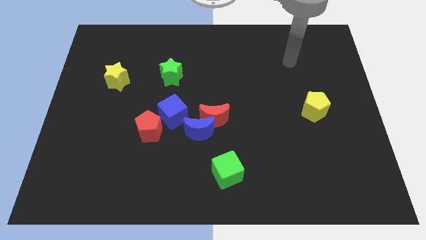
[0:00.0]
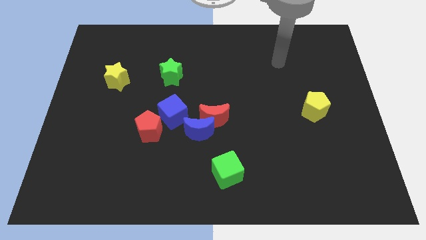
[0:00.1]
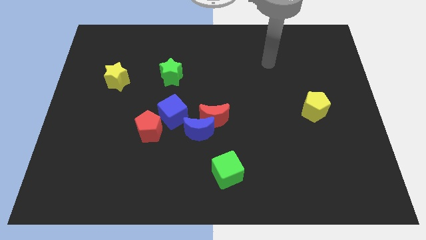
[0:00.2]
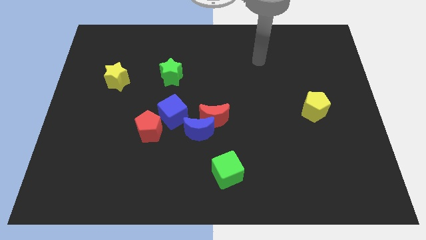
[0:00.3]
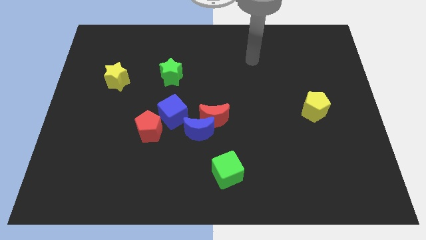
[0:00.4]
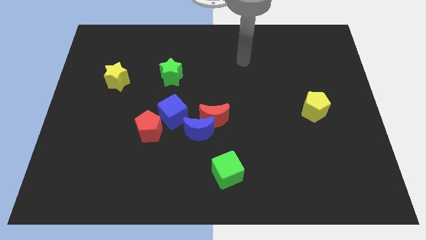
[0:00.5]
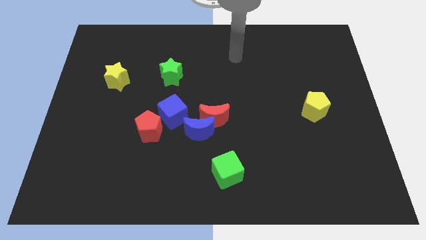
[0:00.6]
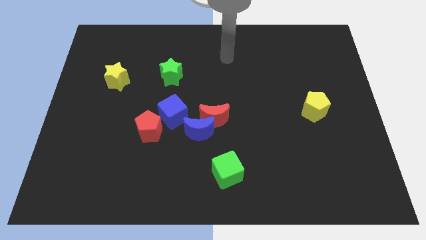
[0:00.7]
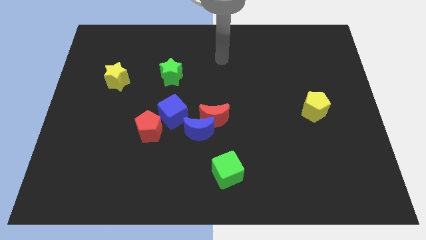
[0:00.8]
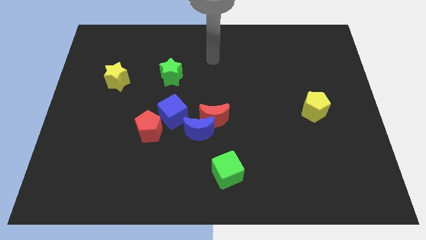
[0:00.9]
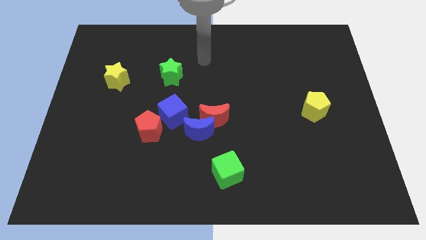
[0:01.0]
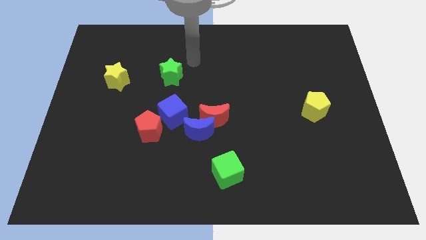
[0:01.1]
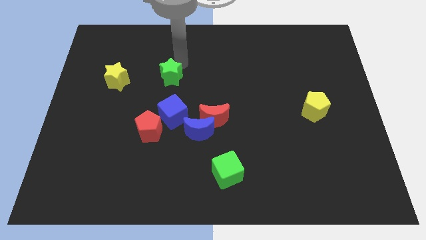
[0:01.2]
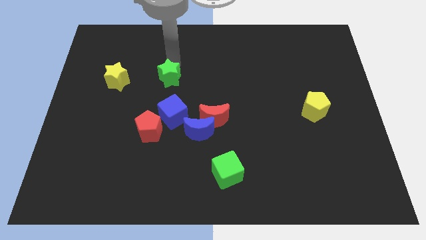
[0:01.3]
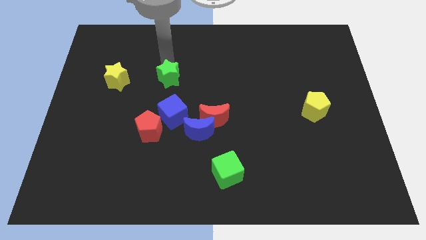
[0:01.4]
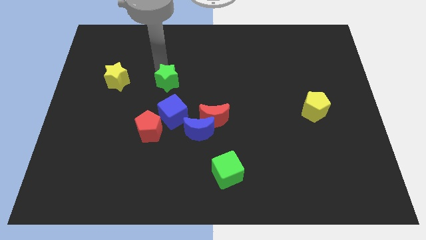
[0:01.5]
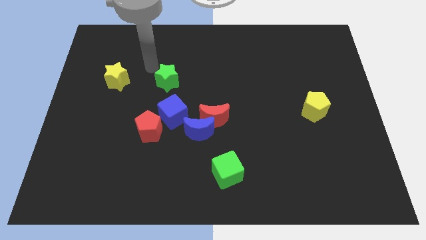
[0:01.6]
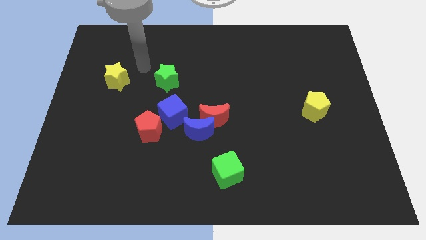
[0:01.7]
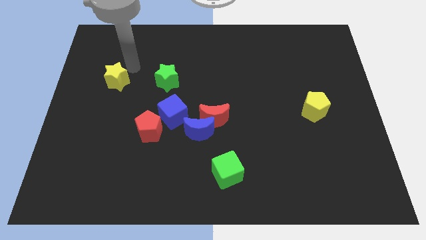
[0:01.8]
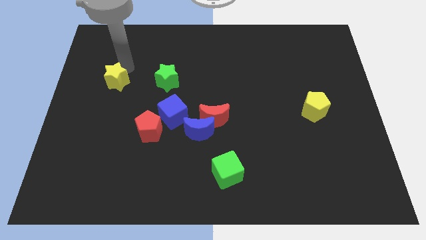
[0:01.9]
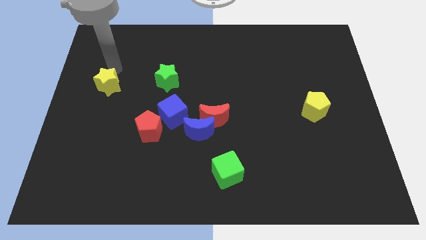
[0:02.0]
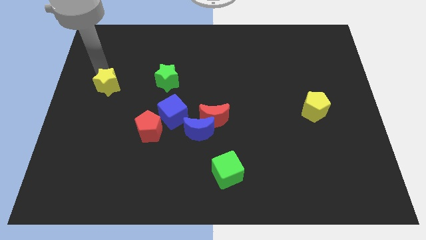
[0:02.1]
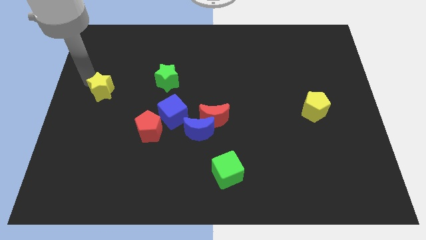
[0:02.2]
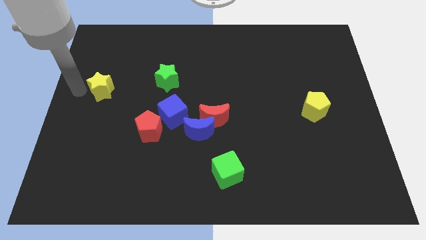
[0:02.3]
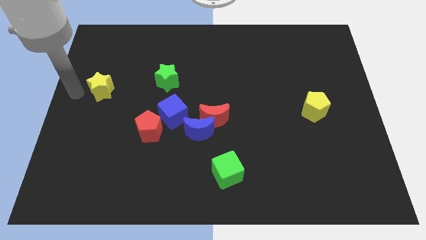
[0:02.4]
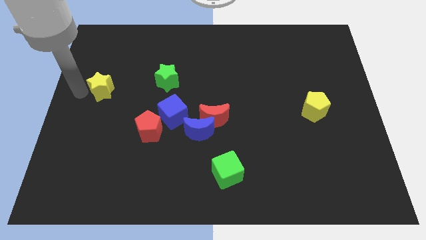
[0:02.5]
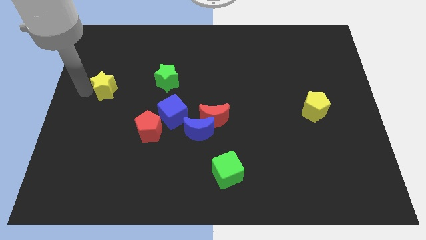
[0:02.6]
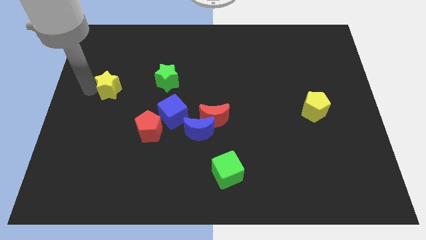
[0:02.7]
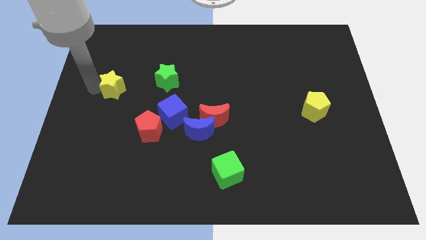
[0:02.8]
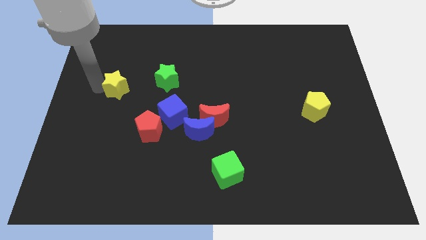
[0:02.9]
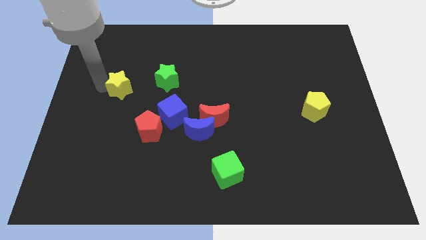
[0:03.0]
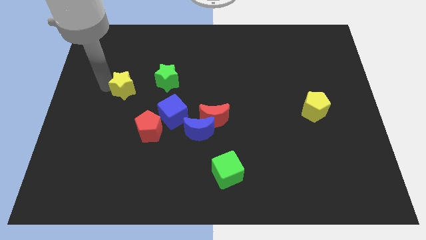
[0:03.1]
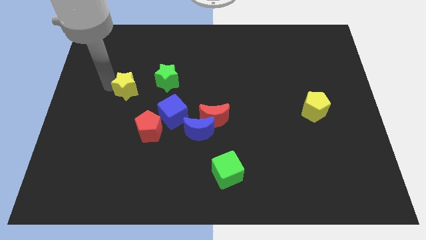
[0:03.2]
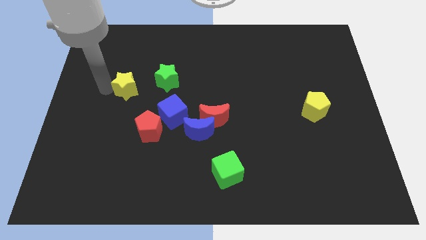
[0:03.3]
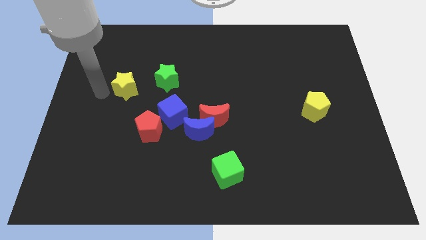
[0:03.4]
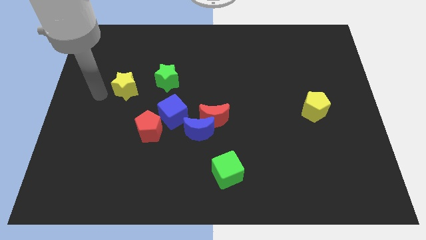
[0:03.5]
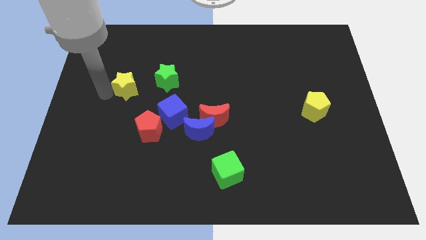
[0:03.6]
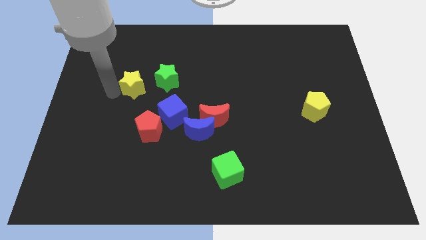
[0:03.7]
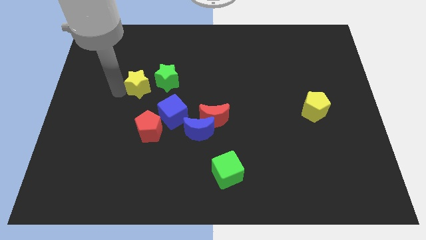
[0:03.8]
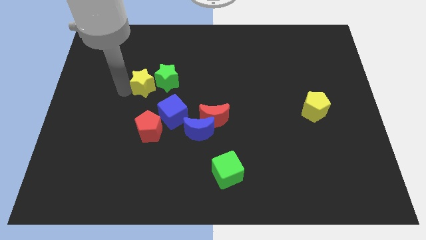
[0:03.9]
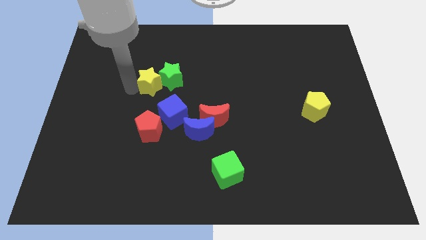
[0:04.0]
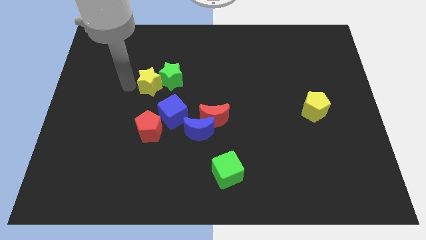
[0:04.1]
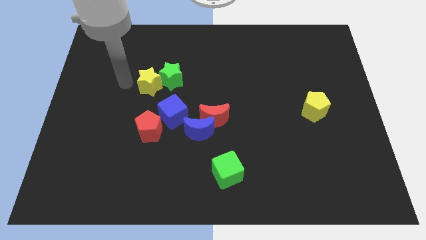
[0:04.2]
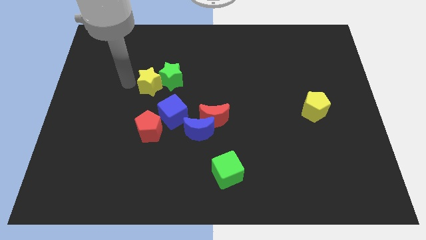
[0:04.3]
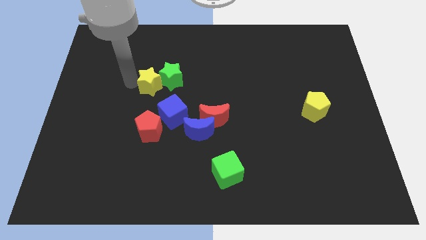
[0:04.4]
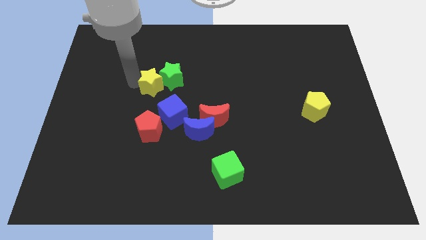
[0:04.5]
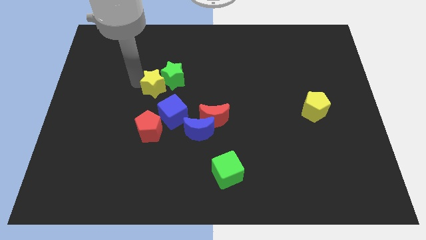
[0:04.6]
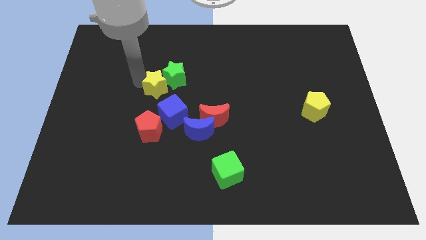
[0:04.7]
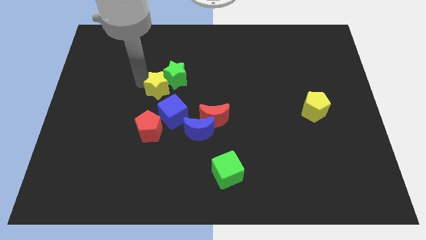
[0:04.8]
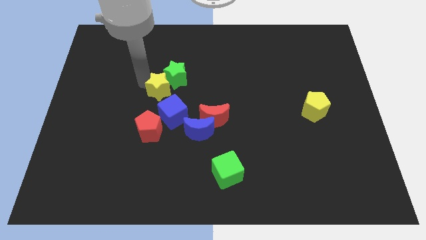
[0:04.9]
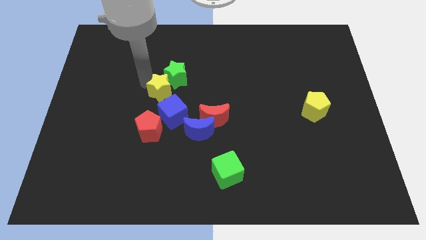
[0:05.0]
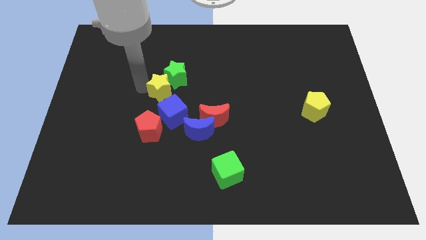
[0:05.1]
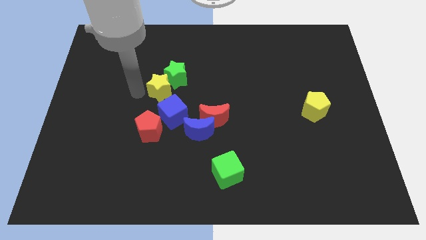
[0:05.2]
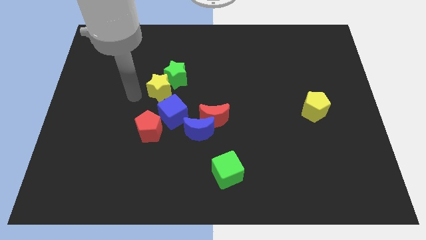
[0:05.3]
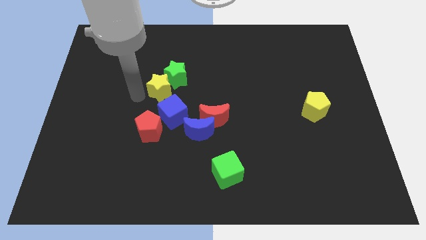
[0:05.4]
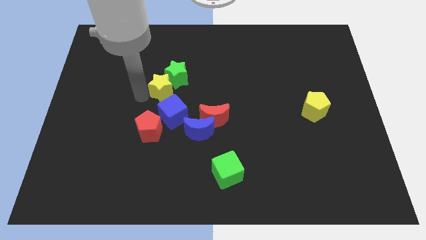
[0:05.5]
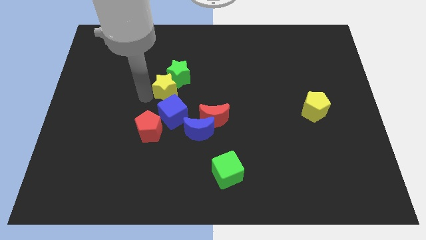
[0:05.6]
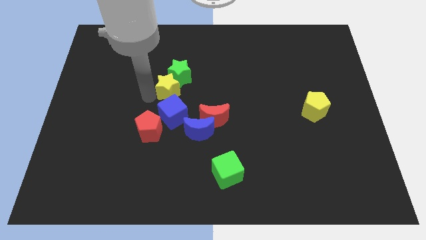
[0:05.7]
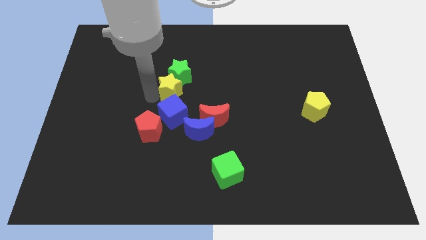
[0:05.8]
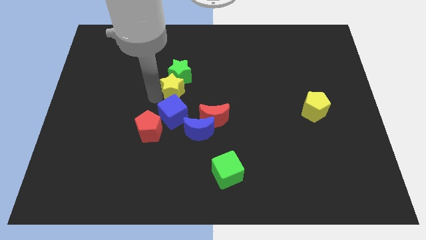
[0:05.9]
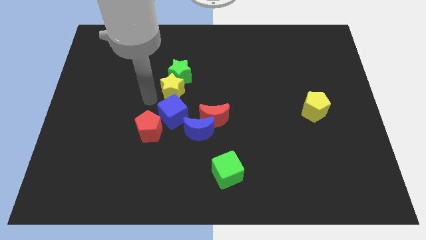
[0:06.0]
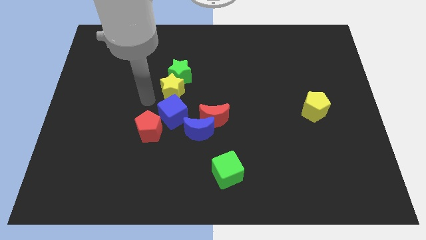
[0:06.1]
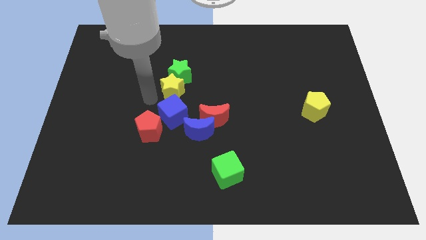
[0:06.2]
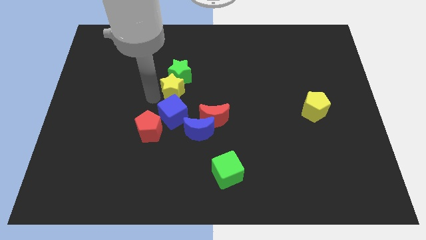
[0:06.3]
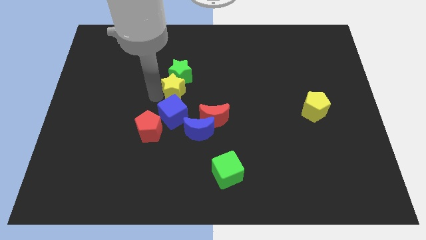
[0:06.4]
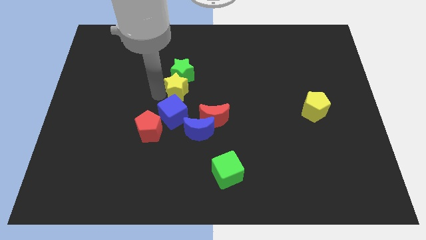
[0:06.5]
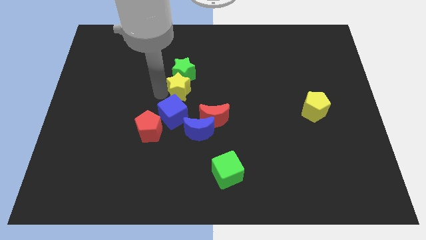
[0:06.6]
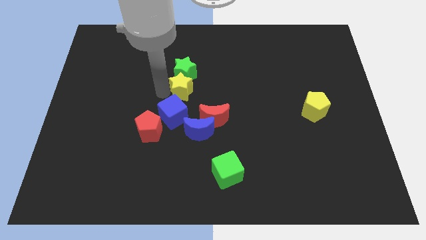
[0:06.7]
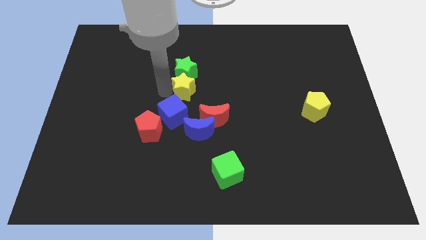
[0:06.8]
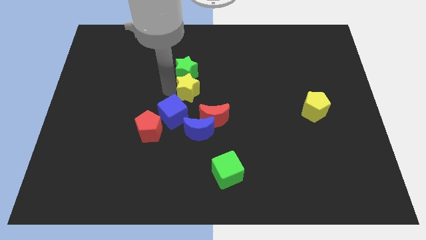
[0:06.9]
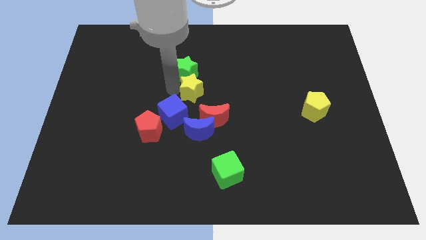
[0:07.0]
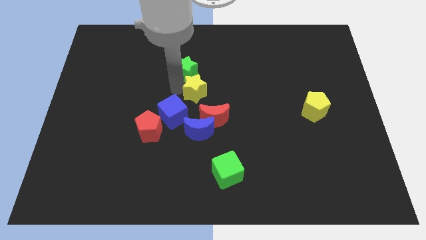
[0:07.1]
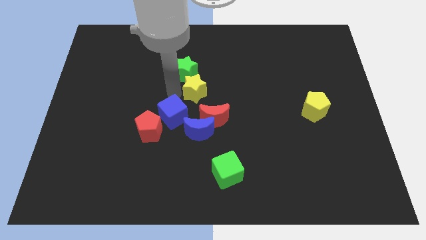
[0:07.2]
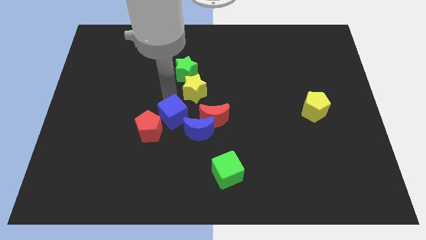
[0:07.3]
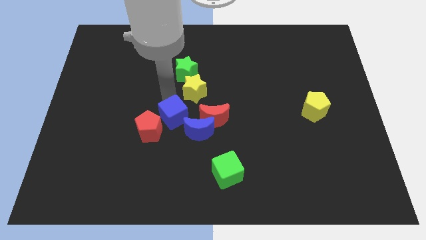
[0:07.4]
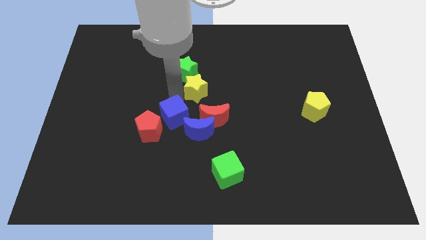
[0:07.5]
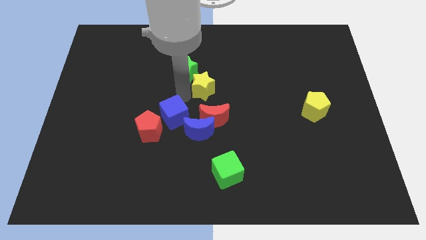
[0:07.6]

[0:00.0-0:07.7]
move the yellow star right

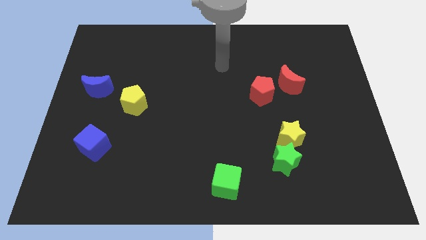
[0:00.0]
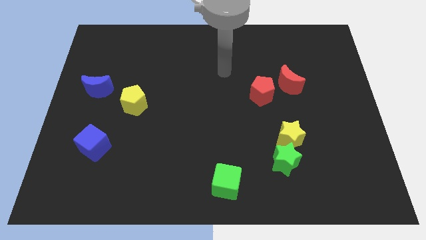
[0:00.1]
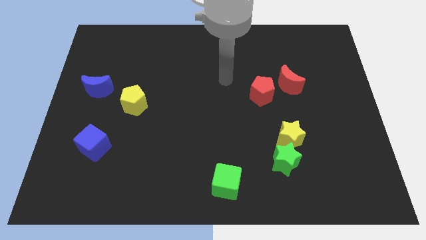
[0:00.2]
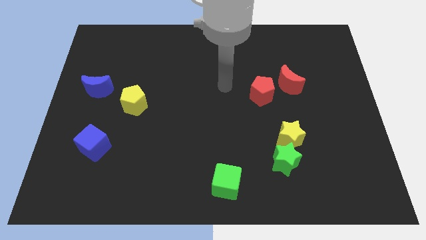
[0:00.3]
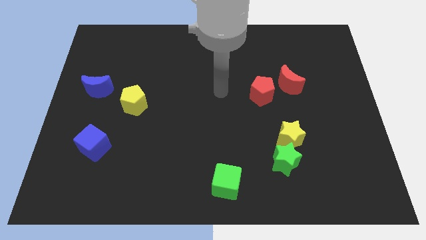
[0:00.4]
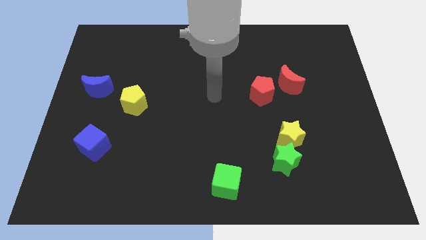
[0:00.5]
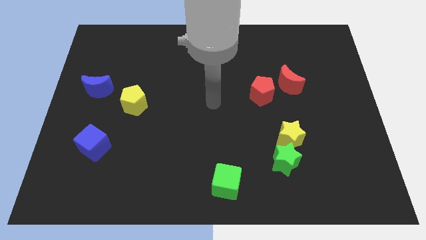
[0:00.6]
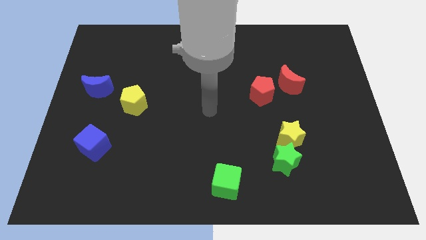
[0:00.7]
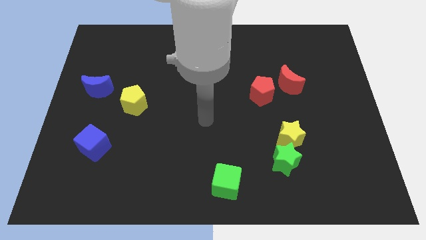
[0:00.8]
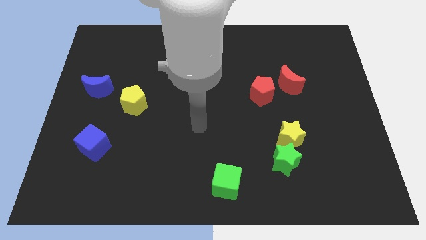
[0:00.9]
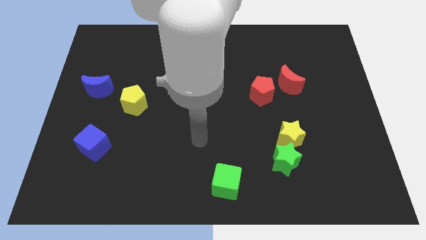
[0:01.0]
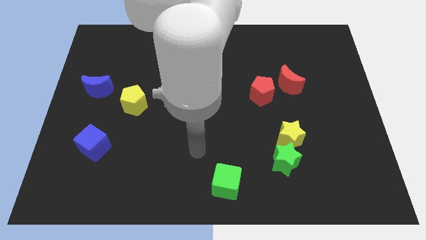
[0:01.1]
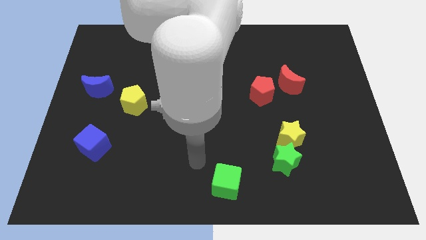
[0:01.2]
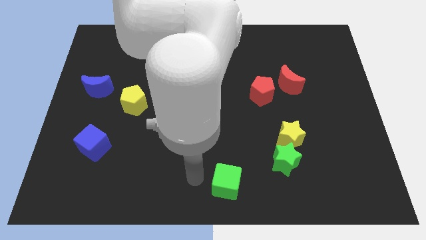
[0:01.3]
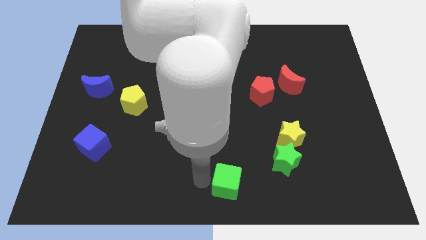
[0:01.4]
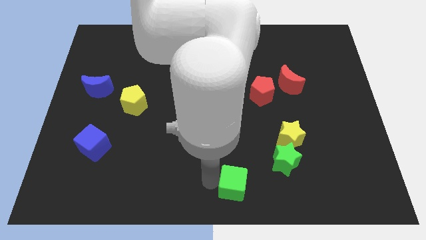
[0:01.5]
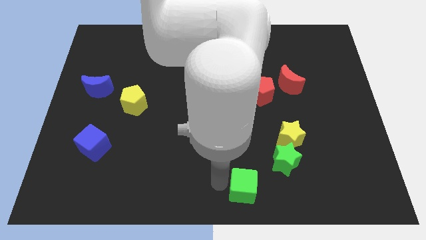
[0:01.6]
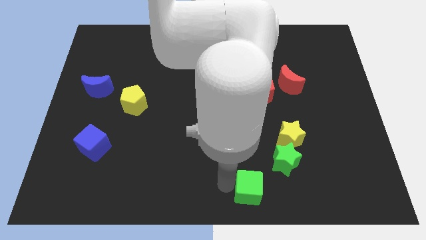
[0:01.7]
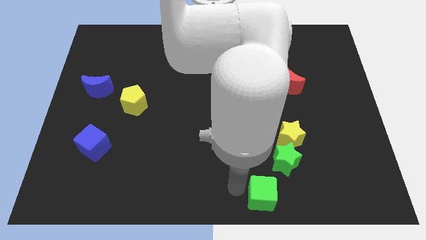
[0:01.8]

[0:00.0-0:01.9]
slightly move the green cube right
